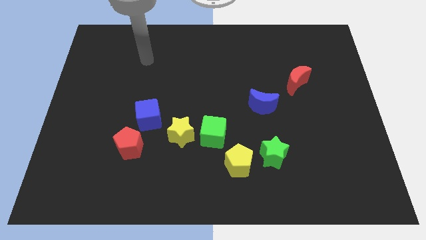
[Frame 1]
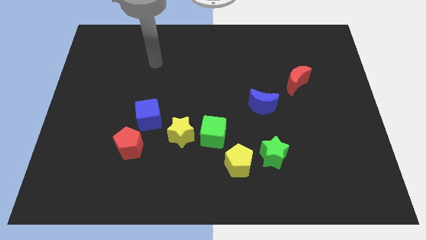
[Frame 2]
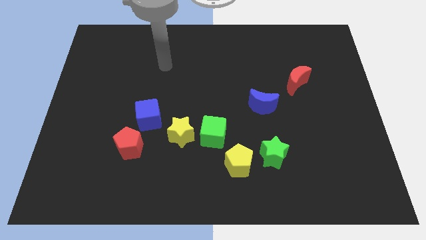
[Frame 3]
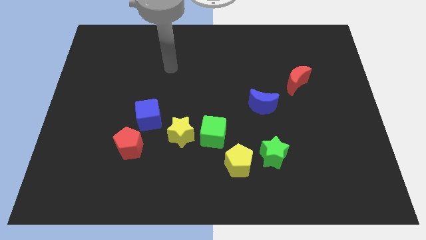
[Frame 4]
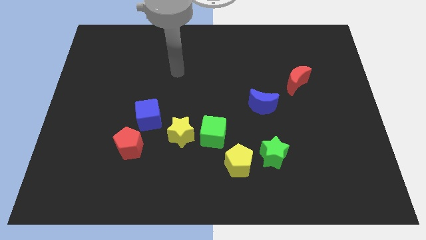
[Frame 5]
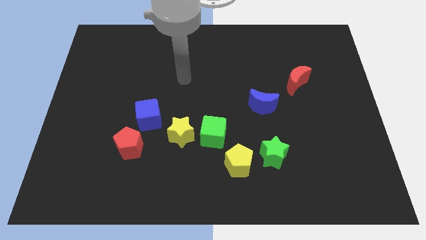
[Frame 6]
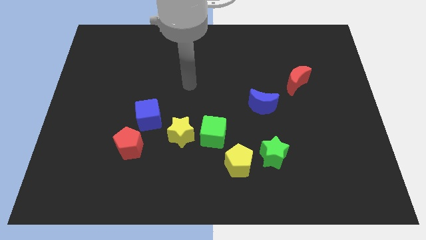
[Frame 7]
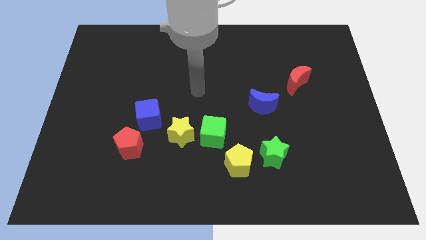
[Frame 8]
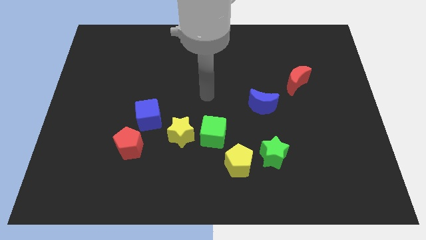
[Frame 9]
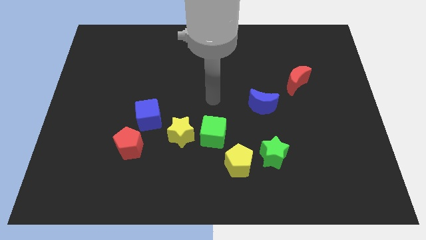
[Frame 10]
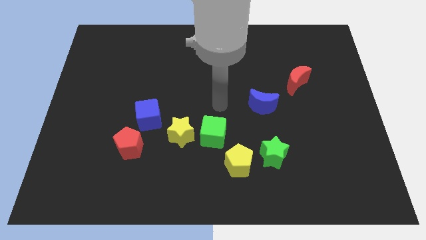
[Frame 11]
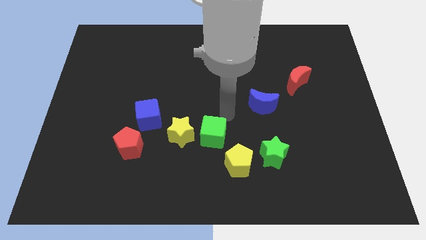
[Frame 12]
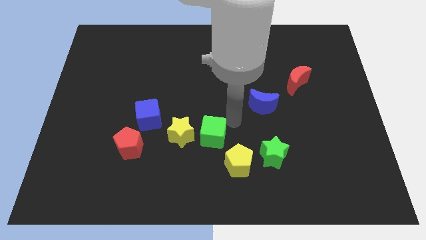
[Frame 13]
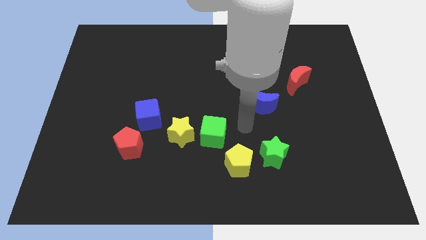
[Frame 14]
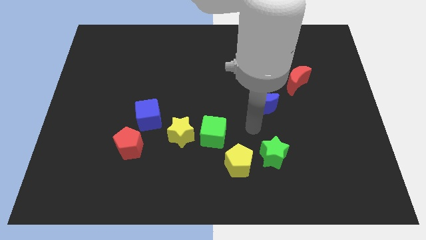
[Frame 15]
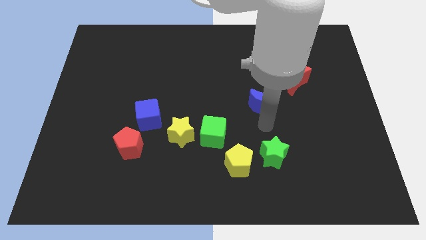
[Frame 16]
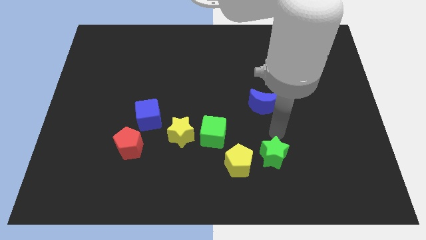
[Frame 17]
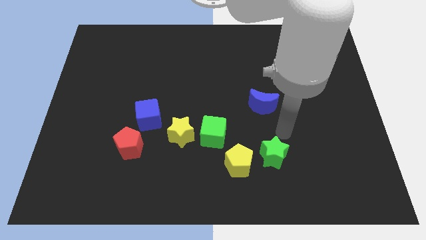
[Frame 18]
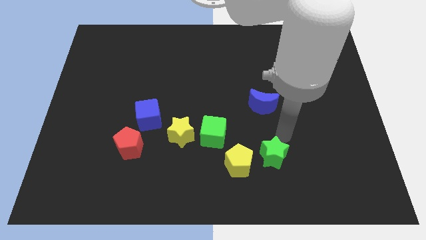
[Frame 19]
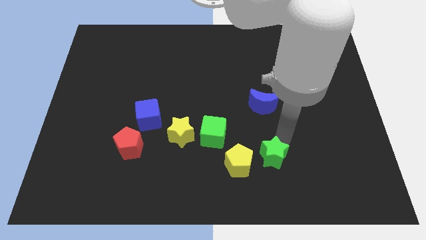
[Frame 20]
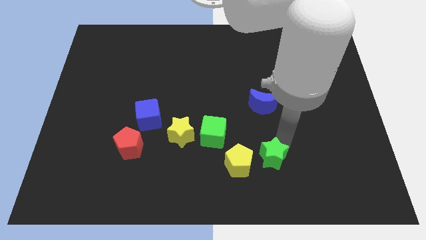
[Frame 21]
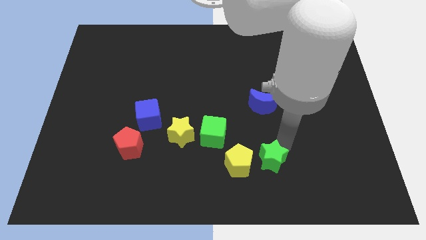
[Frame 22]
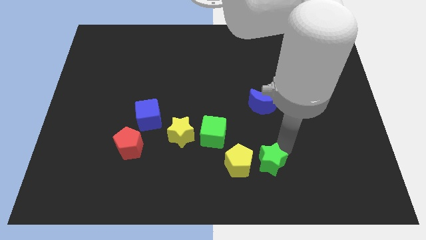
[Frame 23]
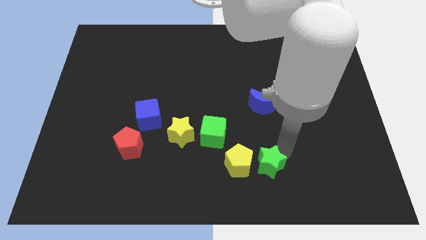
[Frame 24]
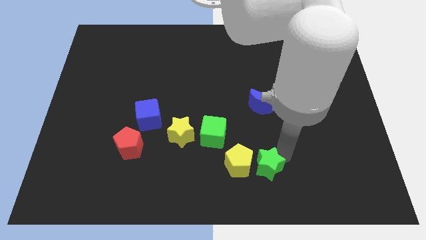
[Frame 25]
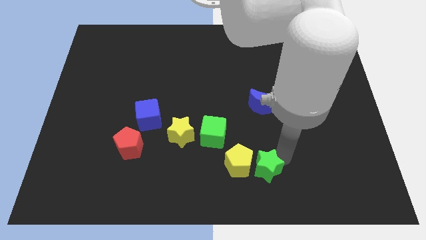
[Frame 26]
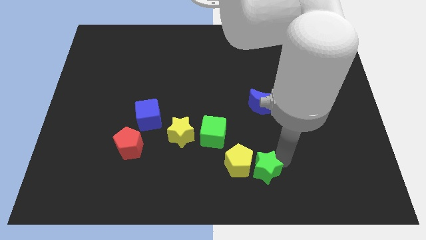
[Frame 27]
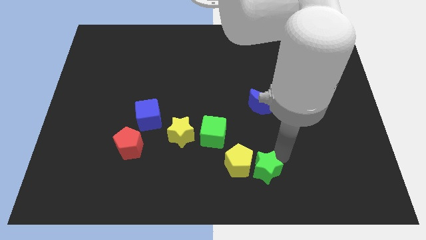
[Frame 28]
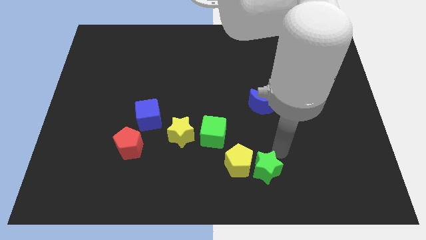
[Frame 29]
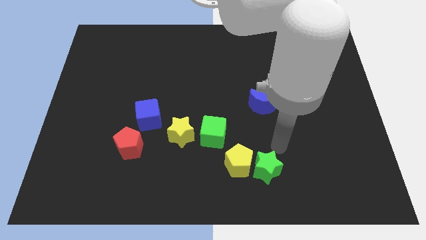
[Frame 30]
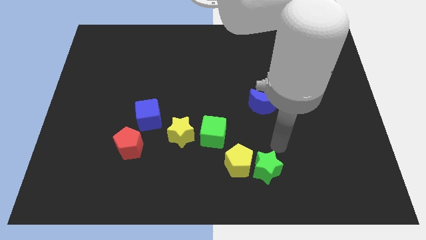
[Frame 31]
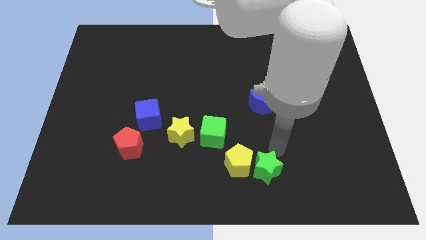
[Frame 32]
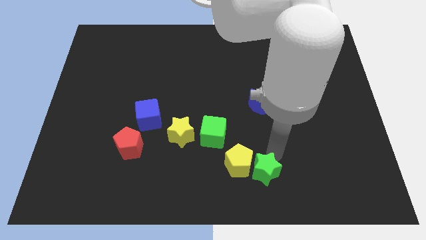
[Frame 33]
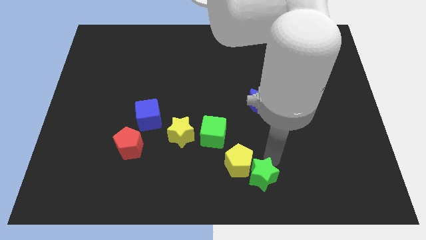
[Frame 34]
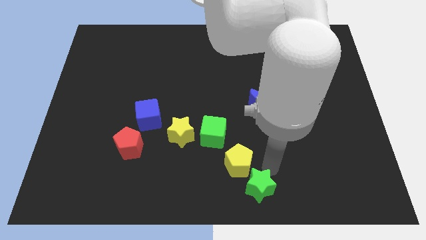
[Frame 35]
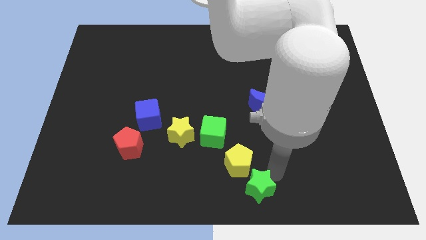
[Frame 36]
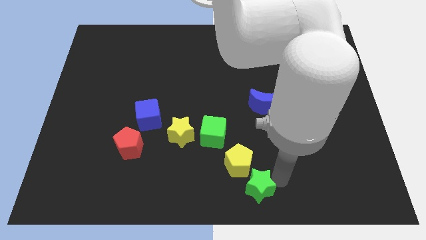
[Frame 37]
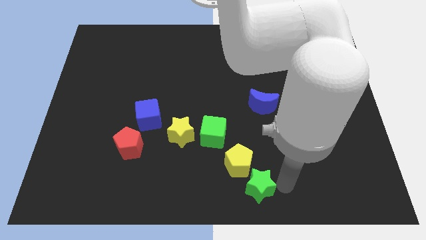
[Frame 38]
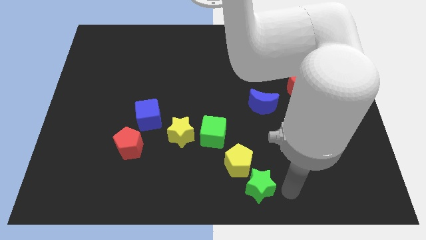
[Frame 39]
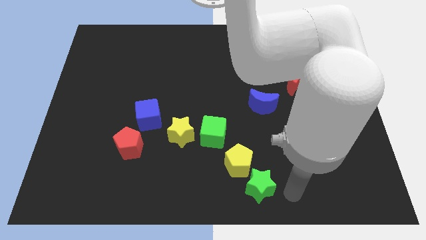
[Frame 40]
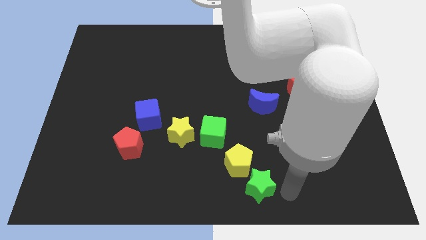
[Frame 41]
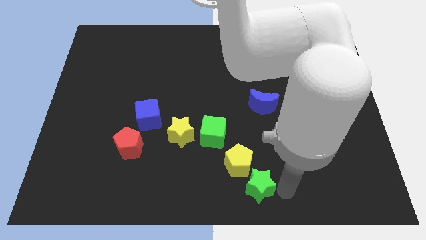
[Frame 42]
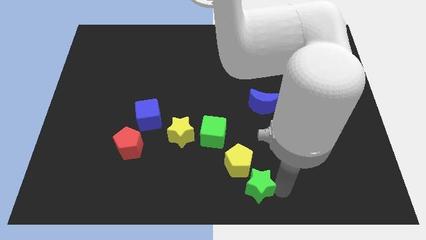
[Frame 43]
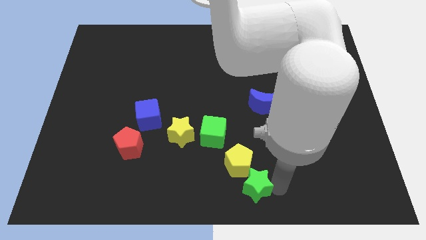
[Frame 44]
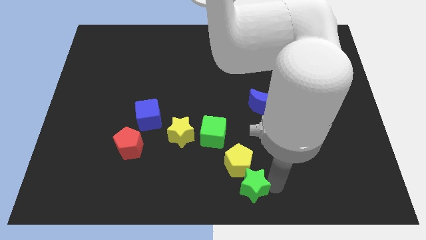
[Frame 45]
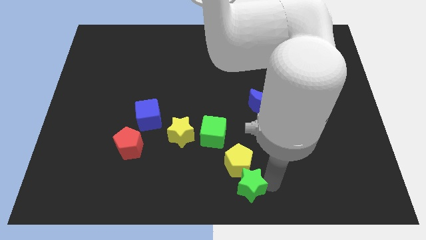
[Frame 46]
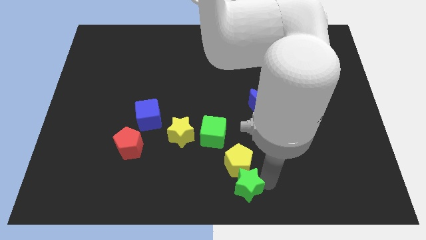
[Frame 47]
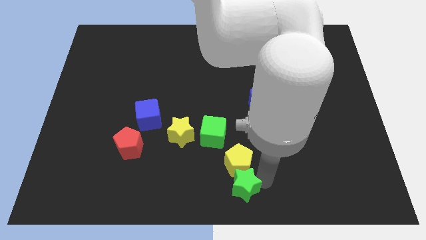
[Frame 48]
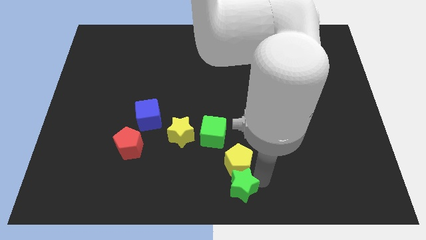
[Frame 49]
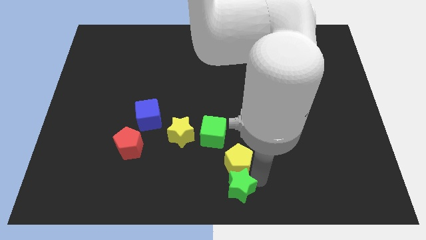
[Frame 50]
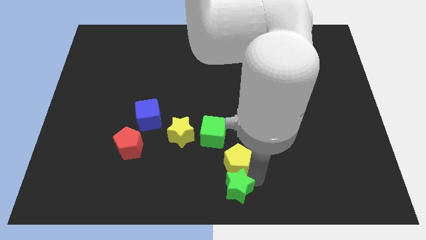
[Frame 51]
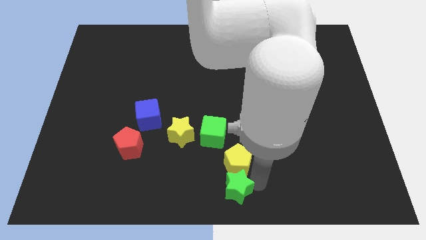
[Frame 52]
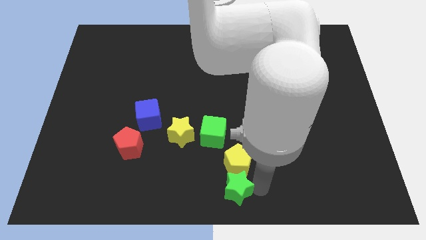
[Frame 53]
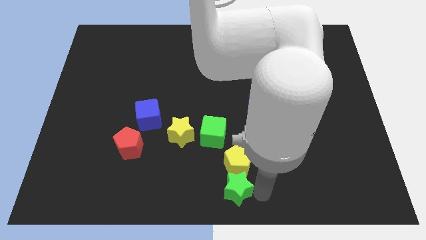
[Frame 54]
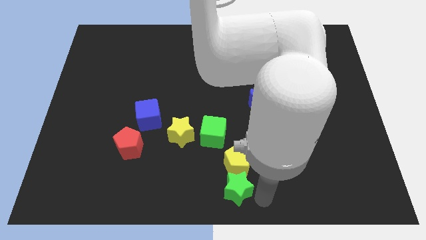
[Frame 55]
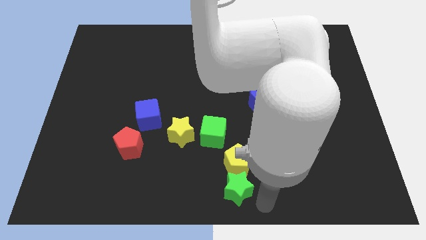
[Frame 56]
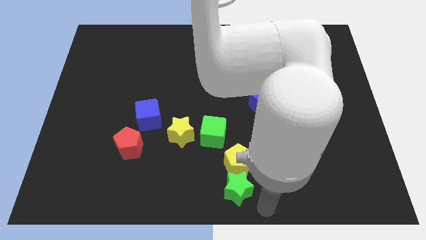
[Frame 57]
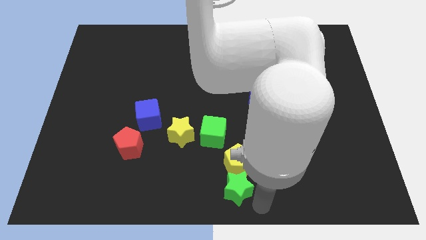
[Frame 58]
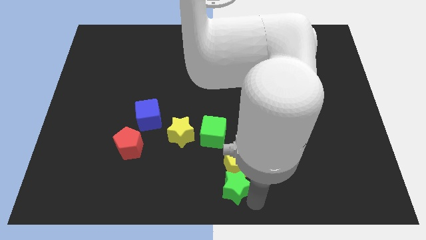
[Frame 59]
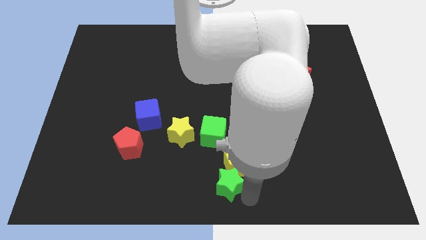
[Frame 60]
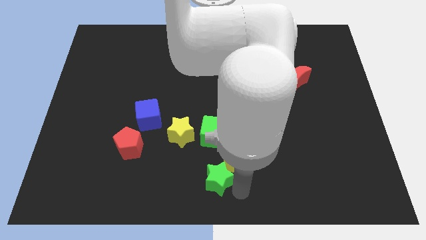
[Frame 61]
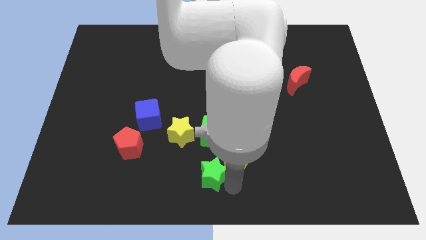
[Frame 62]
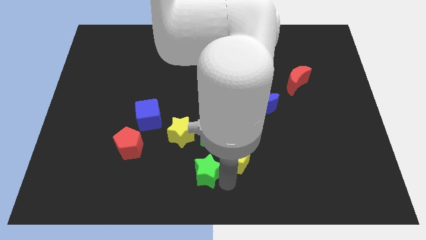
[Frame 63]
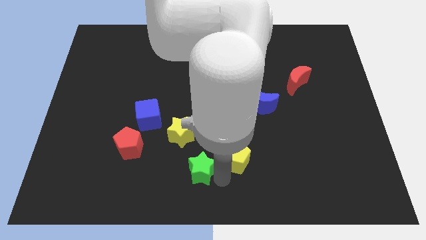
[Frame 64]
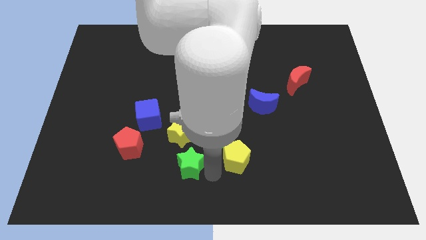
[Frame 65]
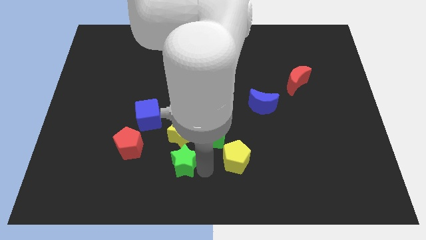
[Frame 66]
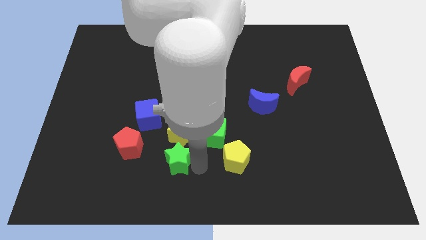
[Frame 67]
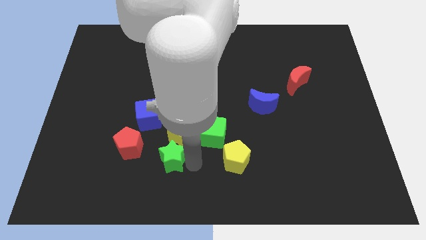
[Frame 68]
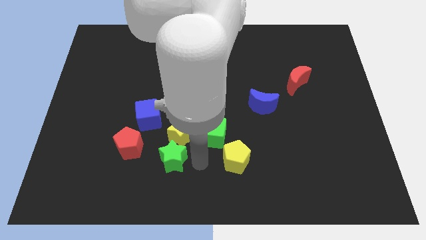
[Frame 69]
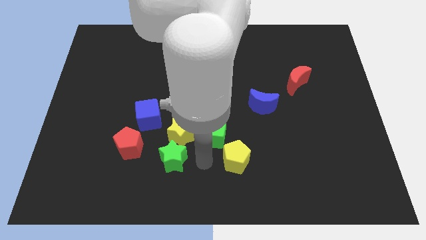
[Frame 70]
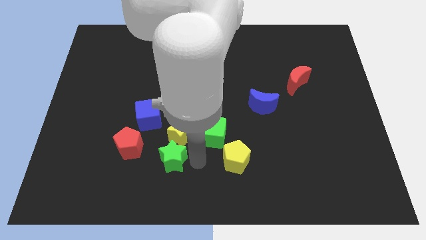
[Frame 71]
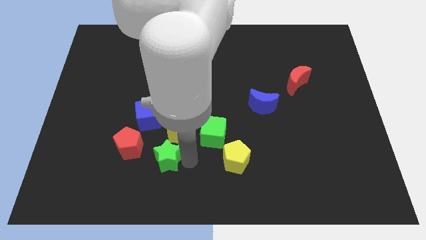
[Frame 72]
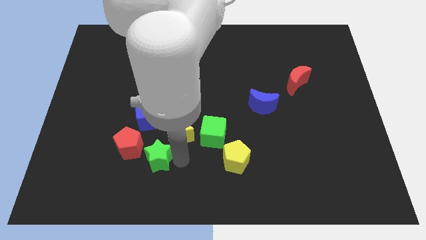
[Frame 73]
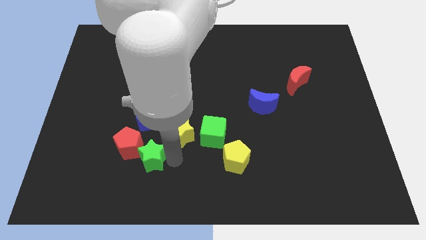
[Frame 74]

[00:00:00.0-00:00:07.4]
slide the green star next to the red pentagon

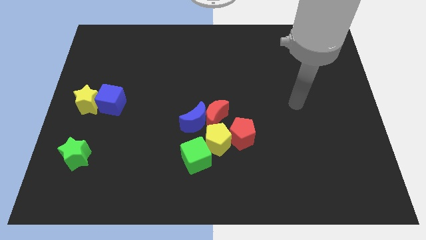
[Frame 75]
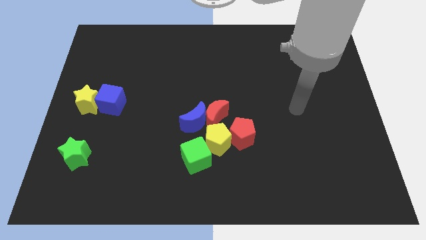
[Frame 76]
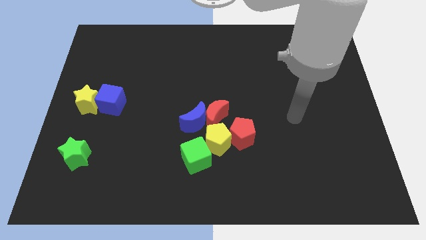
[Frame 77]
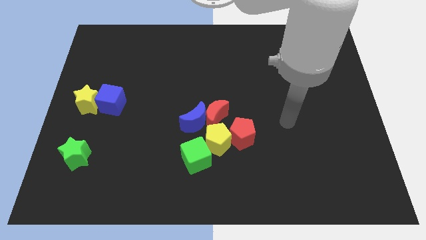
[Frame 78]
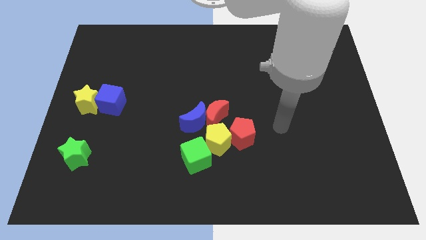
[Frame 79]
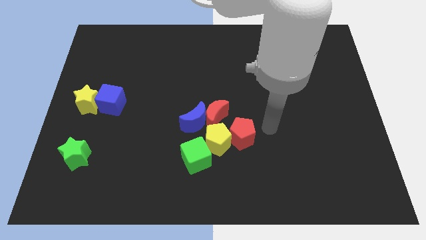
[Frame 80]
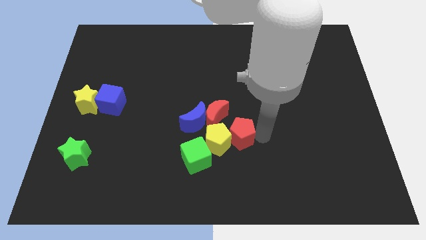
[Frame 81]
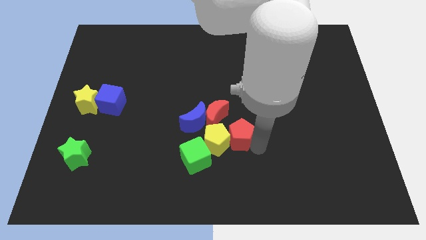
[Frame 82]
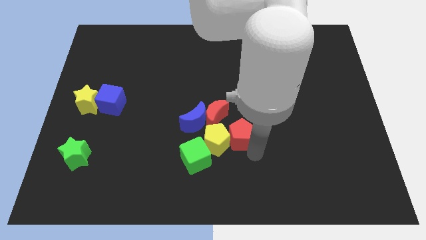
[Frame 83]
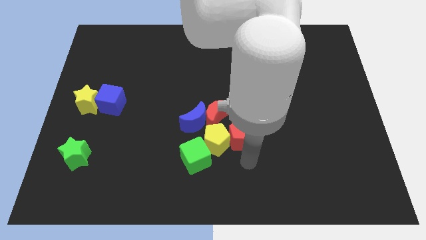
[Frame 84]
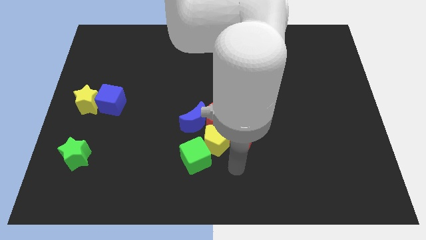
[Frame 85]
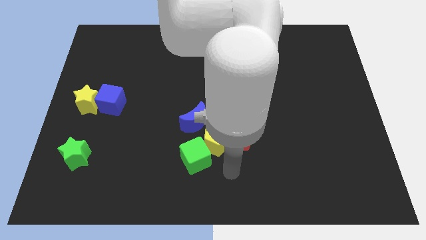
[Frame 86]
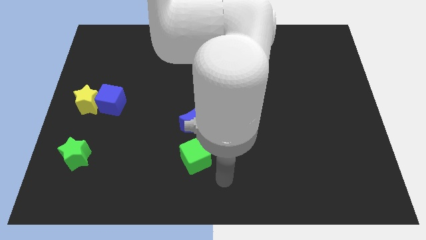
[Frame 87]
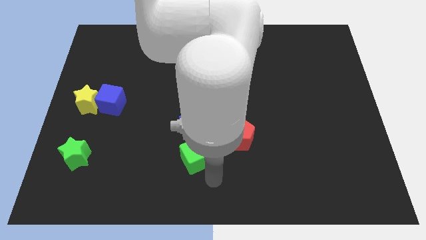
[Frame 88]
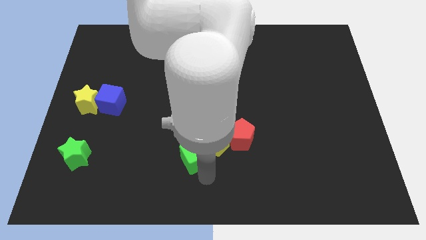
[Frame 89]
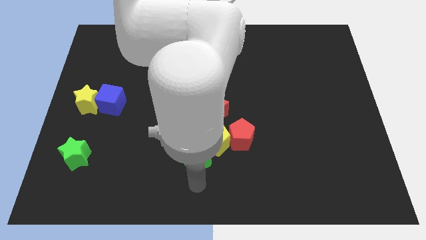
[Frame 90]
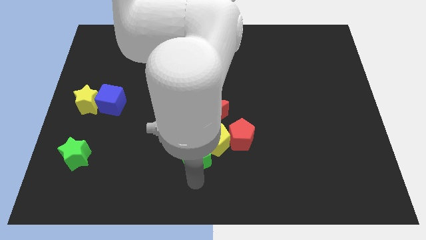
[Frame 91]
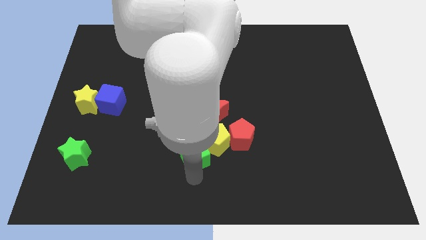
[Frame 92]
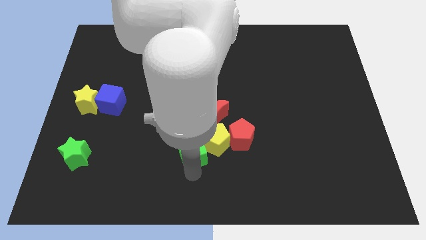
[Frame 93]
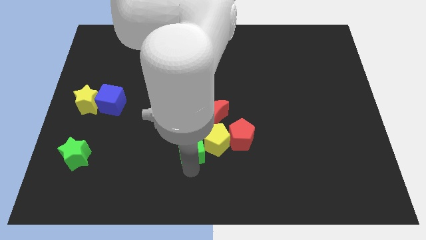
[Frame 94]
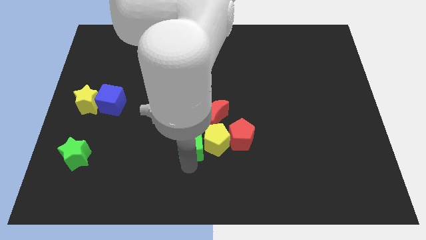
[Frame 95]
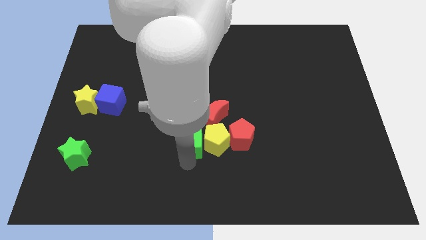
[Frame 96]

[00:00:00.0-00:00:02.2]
slide the green cube to the blue moon
